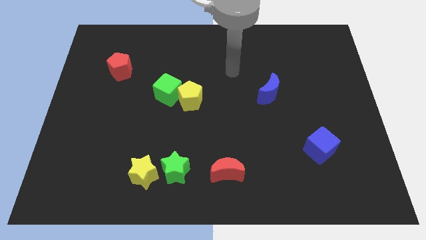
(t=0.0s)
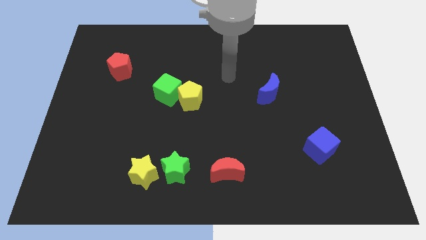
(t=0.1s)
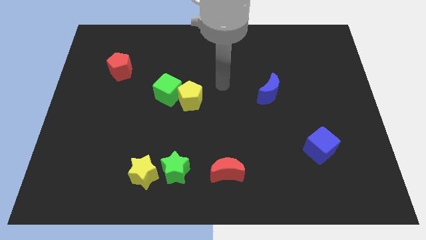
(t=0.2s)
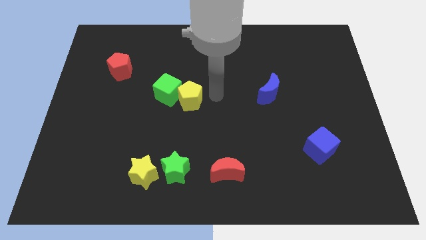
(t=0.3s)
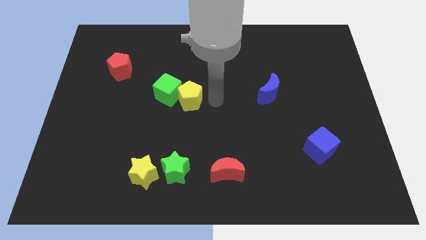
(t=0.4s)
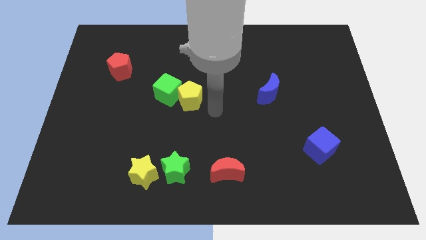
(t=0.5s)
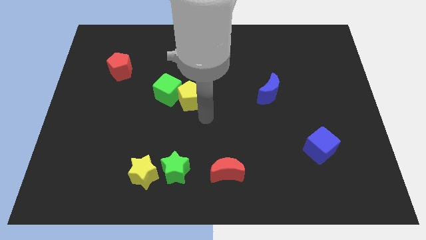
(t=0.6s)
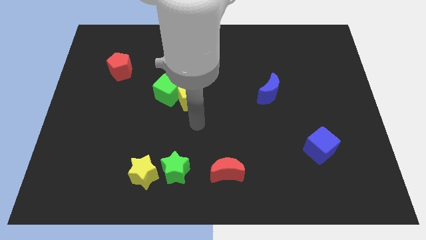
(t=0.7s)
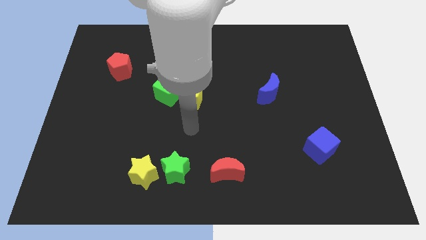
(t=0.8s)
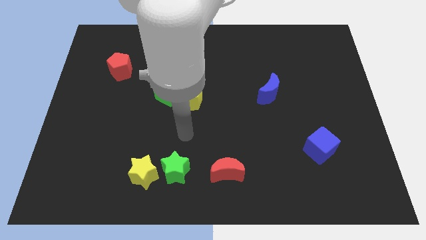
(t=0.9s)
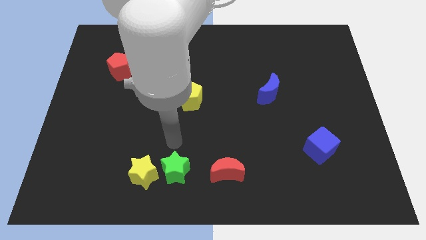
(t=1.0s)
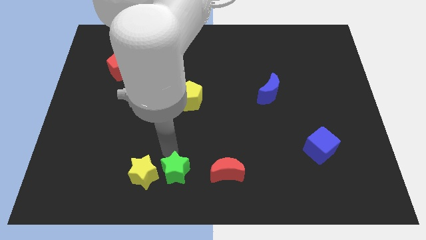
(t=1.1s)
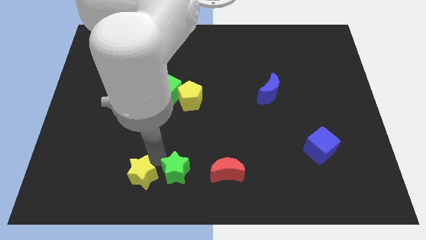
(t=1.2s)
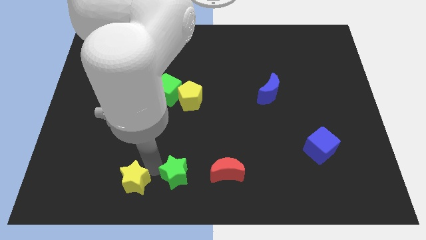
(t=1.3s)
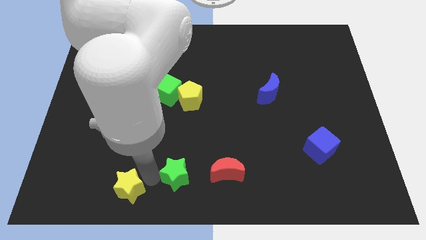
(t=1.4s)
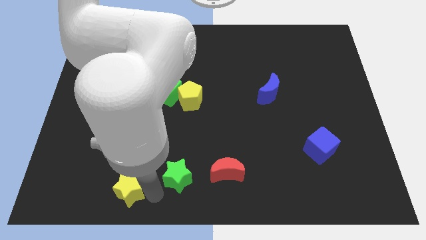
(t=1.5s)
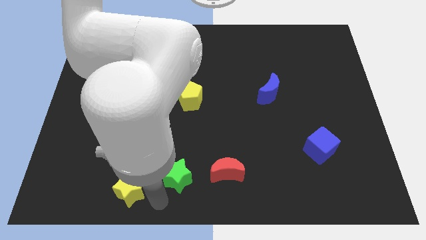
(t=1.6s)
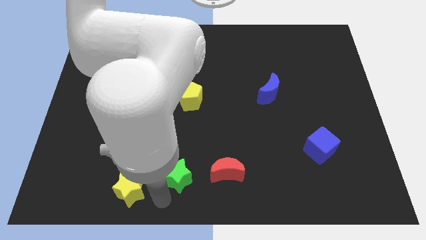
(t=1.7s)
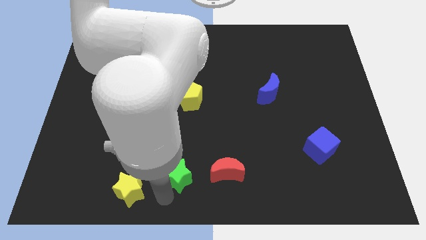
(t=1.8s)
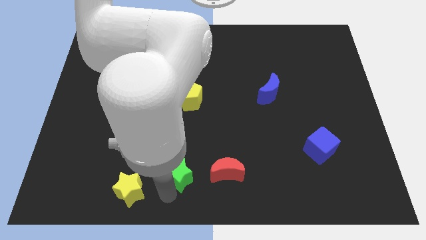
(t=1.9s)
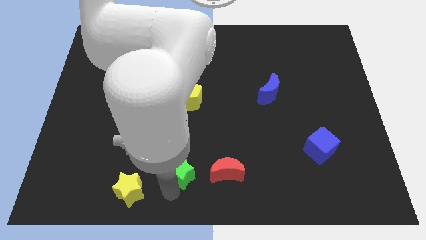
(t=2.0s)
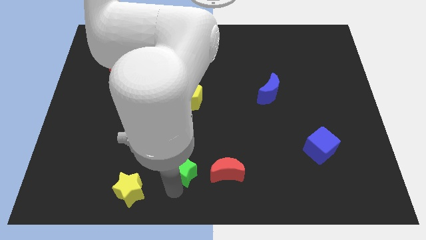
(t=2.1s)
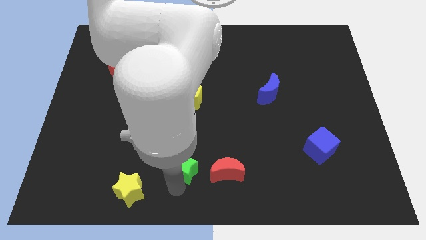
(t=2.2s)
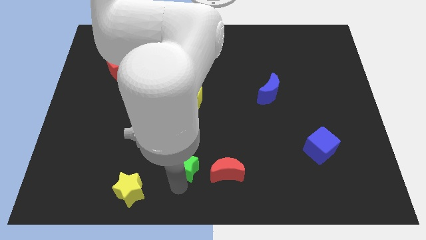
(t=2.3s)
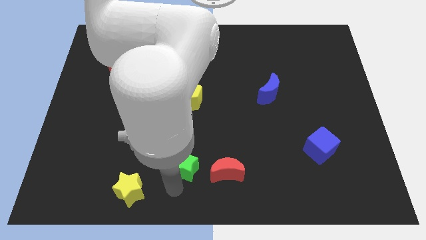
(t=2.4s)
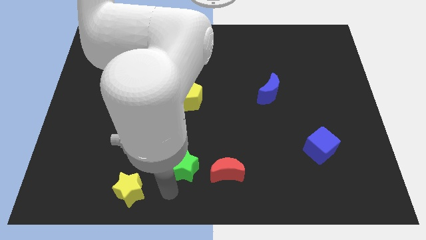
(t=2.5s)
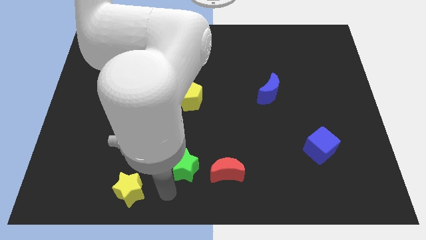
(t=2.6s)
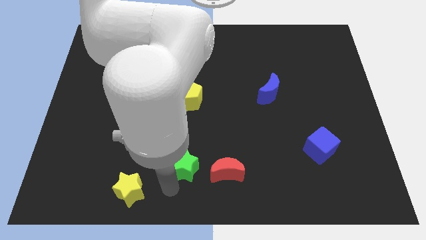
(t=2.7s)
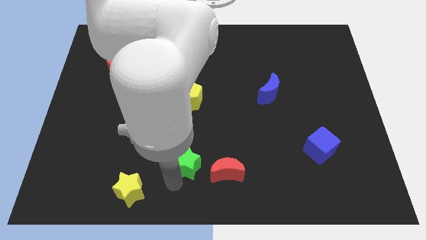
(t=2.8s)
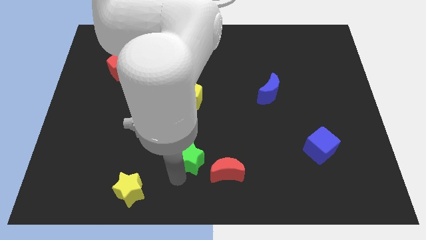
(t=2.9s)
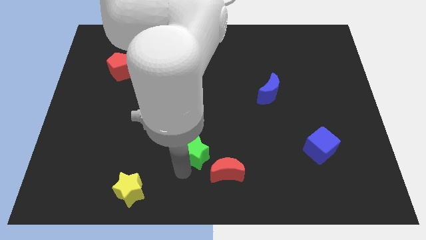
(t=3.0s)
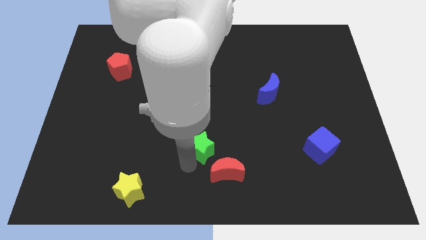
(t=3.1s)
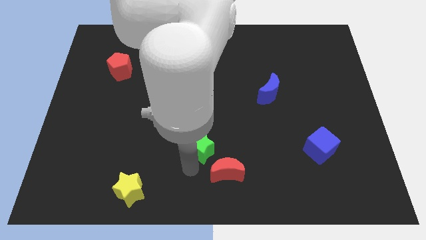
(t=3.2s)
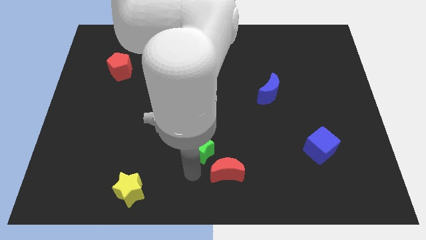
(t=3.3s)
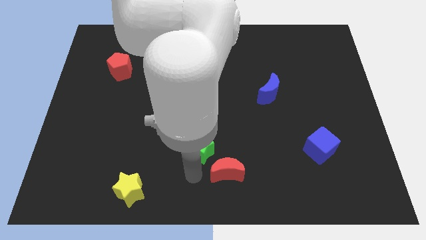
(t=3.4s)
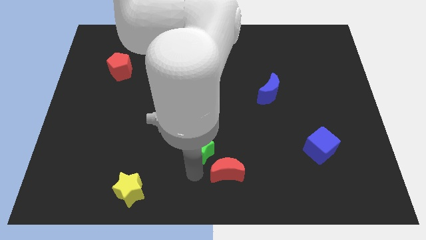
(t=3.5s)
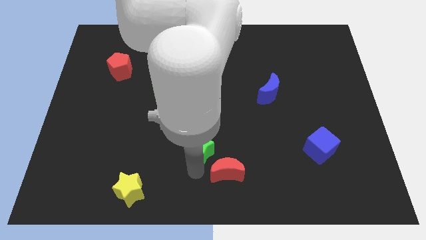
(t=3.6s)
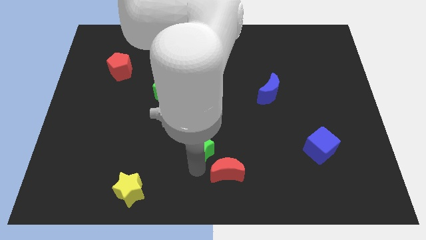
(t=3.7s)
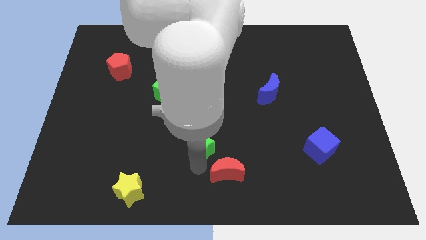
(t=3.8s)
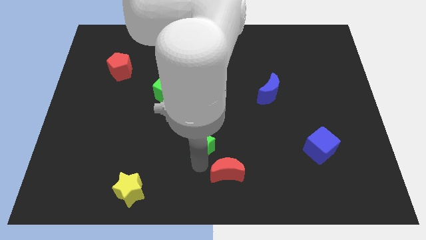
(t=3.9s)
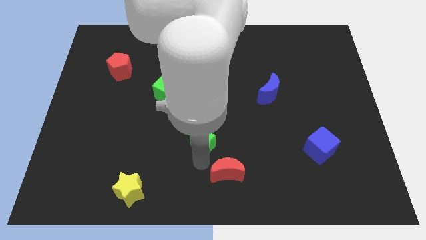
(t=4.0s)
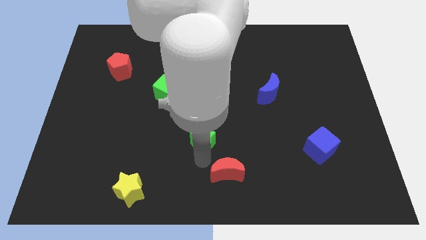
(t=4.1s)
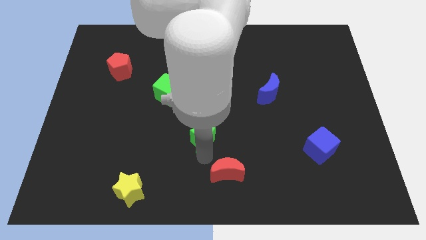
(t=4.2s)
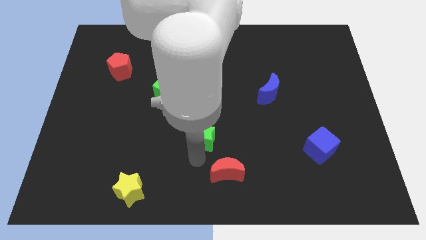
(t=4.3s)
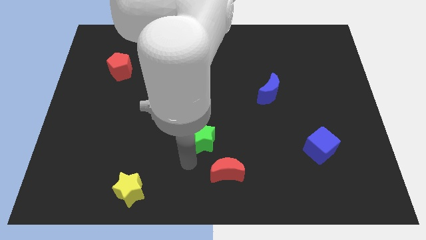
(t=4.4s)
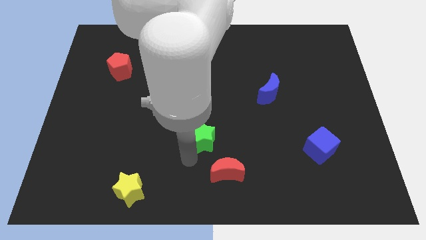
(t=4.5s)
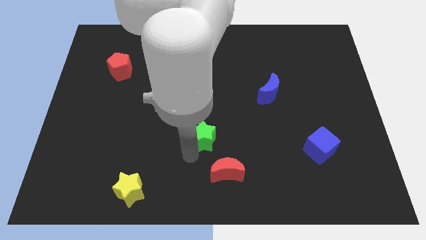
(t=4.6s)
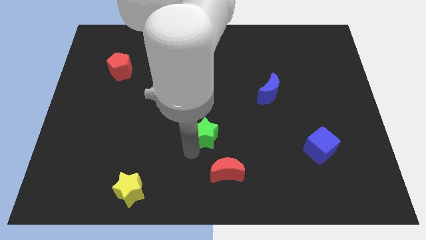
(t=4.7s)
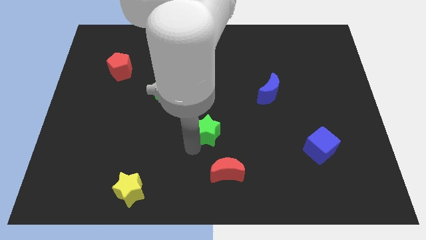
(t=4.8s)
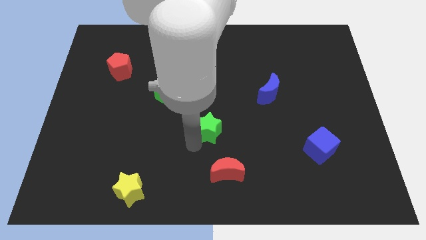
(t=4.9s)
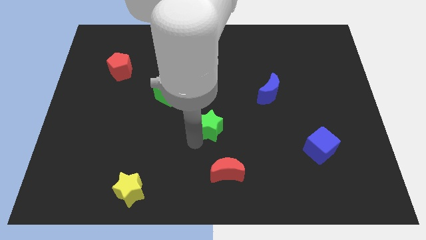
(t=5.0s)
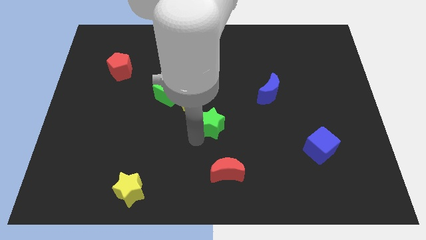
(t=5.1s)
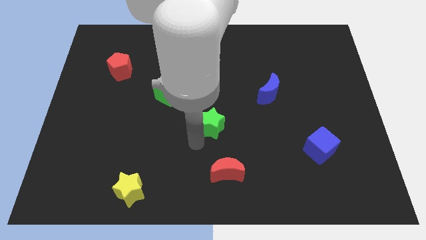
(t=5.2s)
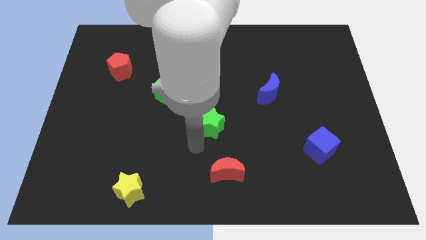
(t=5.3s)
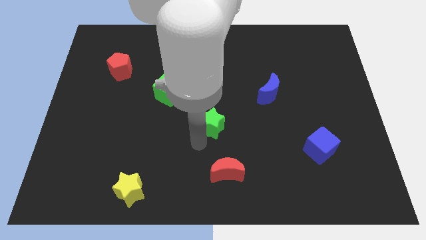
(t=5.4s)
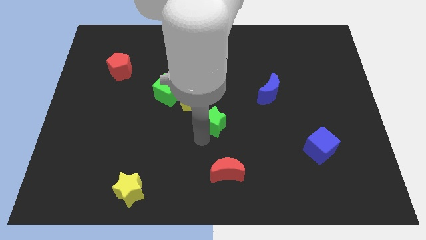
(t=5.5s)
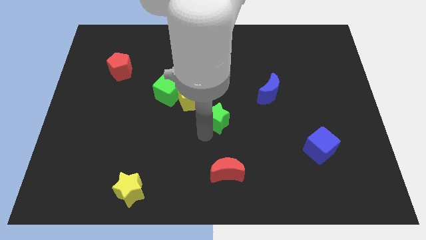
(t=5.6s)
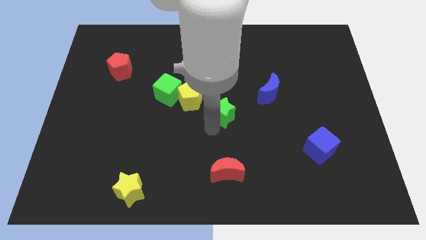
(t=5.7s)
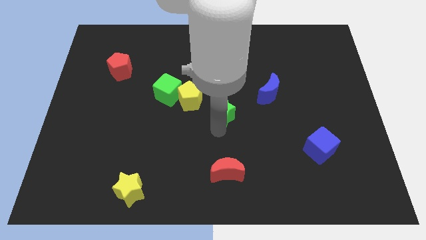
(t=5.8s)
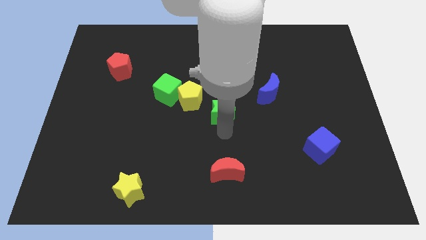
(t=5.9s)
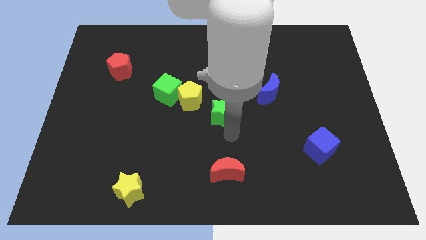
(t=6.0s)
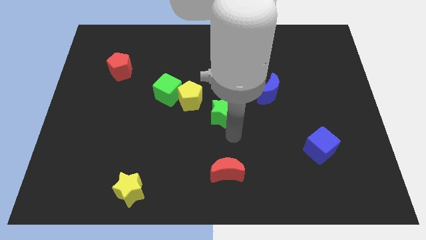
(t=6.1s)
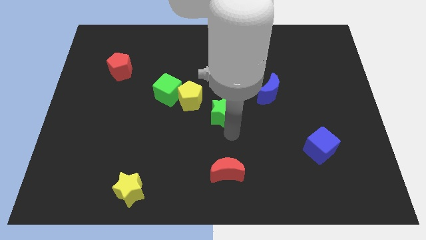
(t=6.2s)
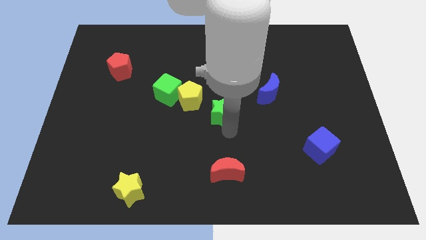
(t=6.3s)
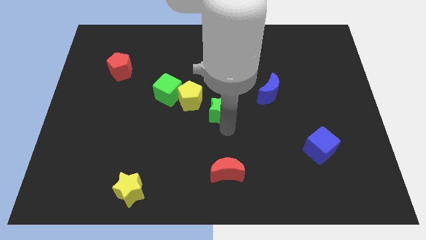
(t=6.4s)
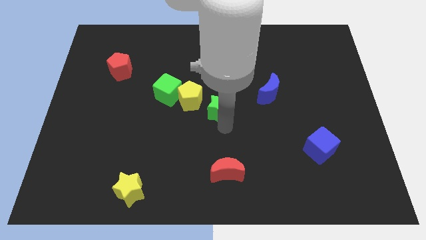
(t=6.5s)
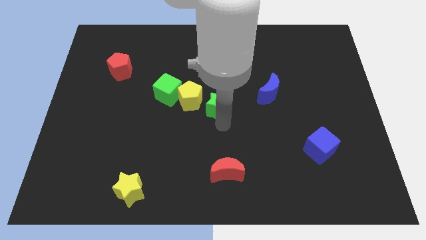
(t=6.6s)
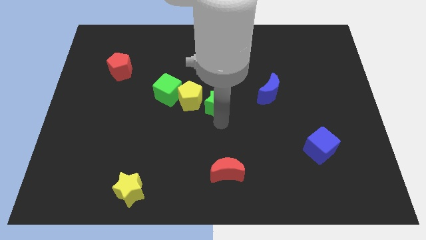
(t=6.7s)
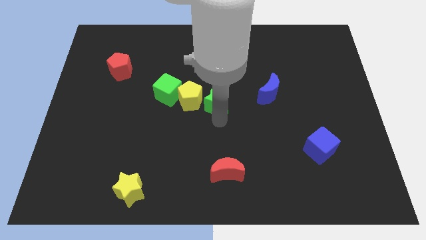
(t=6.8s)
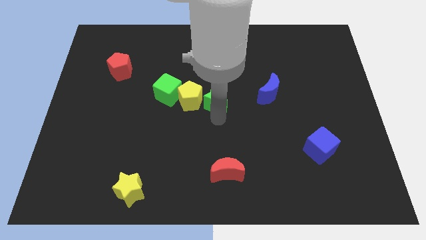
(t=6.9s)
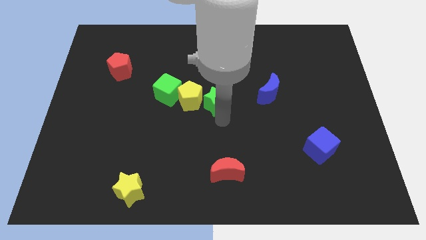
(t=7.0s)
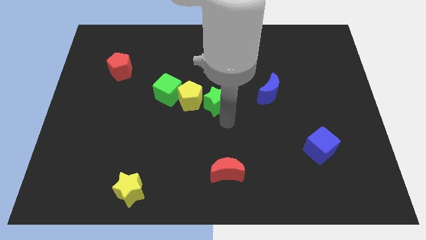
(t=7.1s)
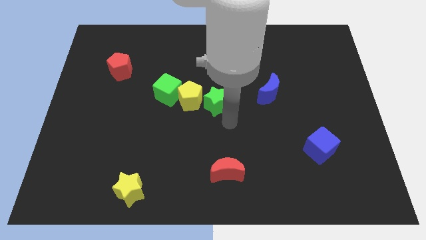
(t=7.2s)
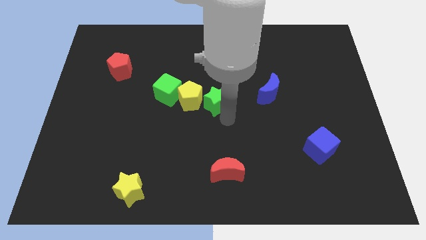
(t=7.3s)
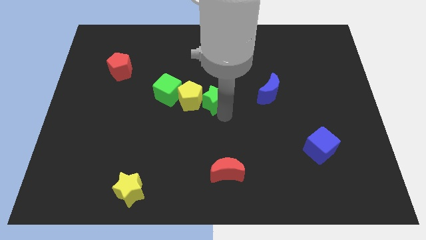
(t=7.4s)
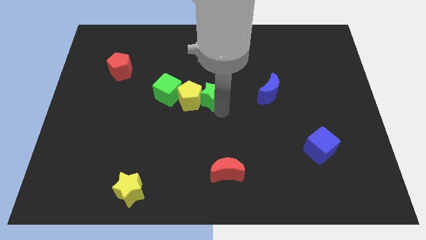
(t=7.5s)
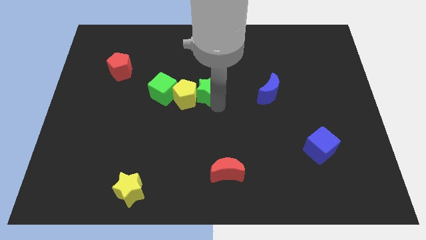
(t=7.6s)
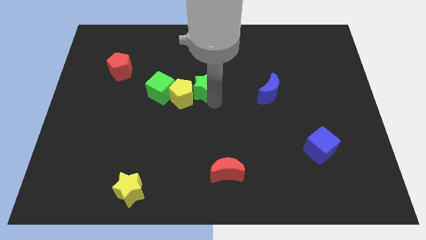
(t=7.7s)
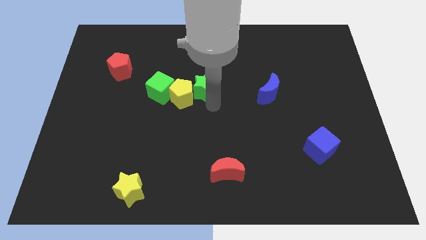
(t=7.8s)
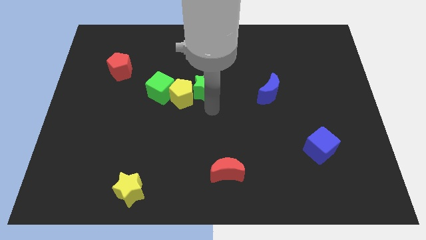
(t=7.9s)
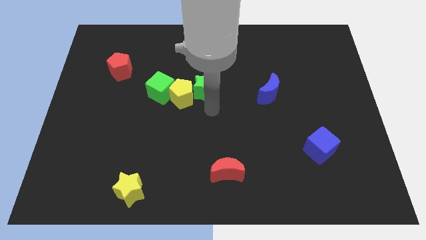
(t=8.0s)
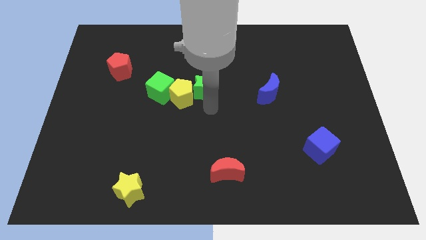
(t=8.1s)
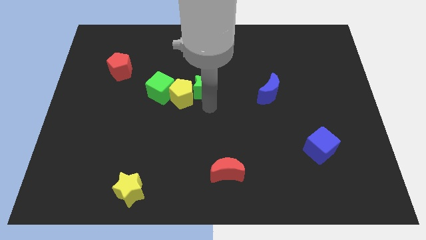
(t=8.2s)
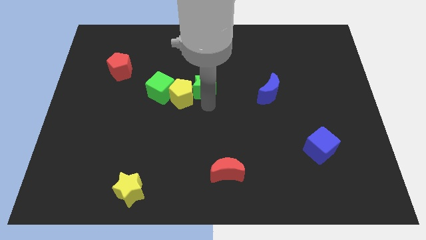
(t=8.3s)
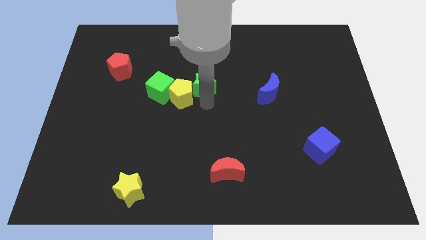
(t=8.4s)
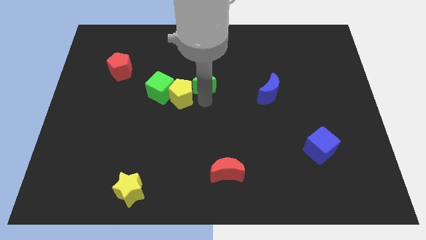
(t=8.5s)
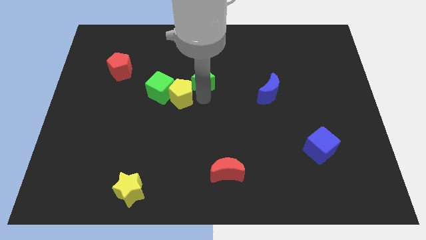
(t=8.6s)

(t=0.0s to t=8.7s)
put the green star to the top side of the yellow pentagon
